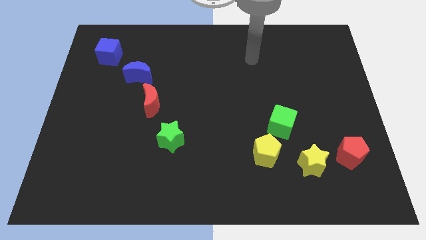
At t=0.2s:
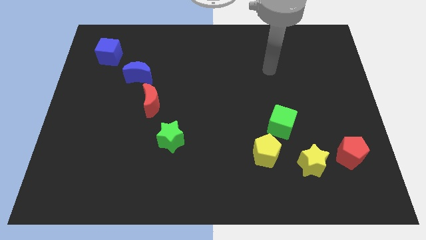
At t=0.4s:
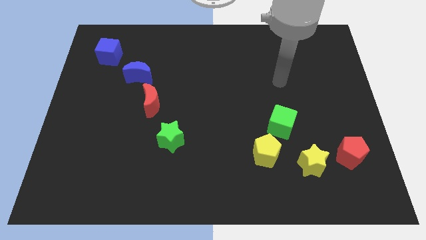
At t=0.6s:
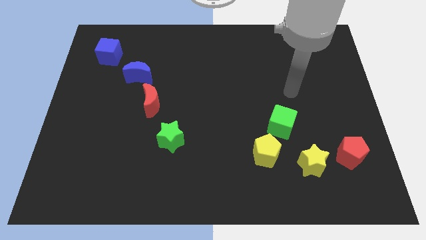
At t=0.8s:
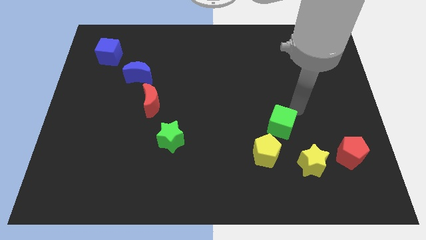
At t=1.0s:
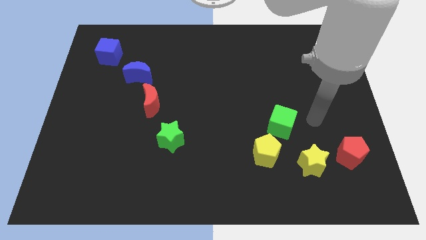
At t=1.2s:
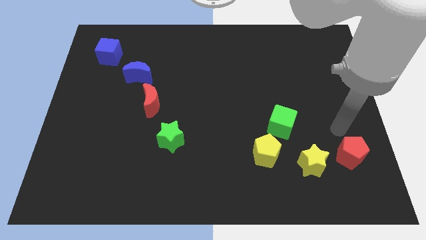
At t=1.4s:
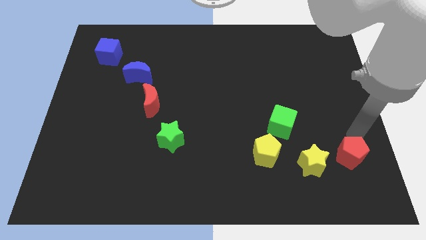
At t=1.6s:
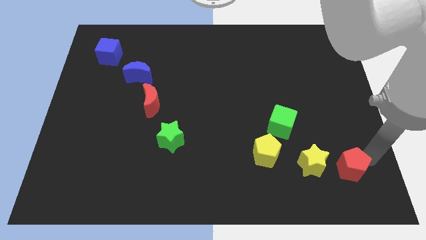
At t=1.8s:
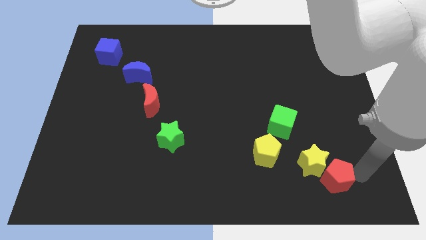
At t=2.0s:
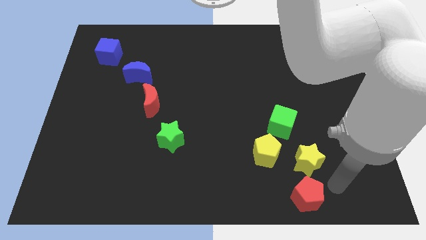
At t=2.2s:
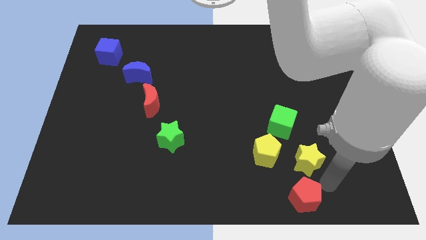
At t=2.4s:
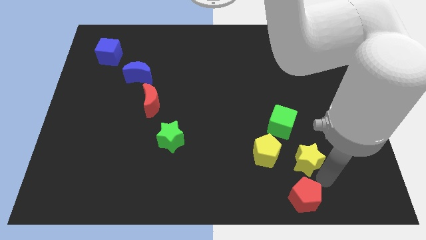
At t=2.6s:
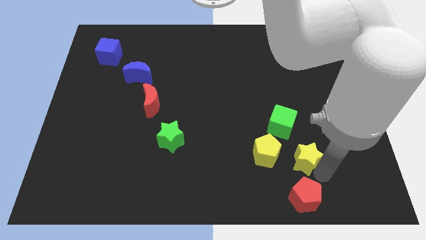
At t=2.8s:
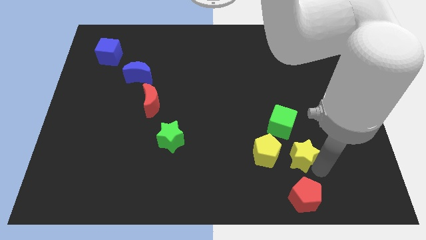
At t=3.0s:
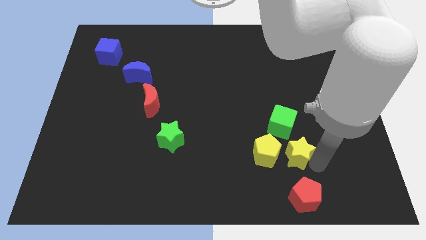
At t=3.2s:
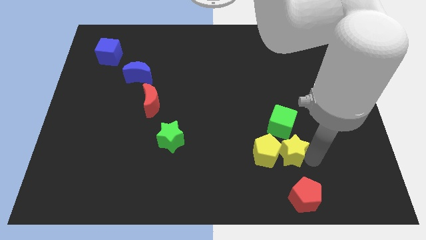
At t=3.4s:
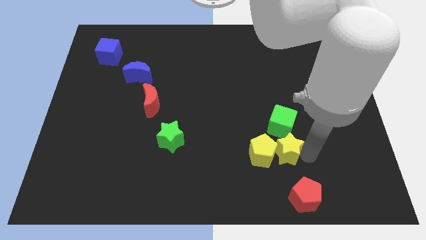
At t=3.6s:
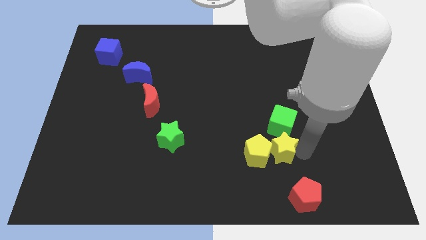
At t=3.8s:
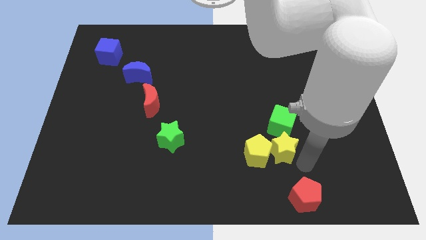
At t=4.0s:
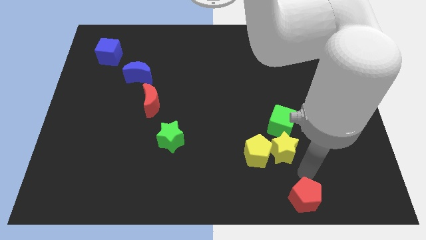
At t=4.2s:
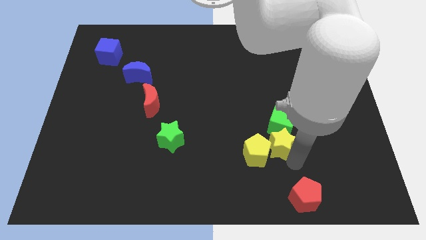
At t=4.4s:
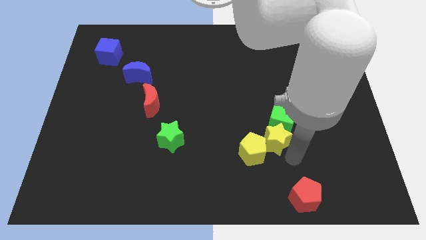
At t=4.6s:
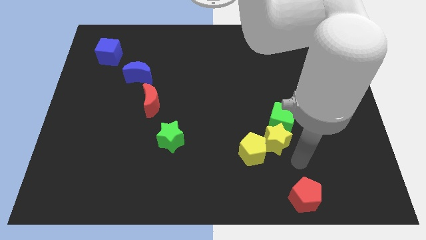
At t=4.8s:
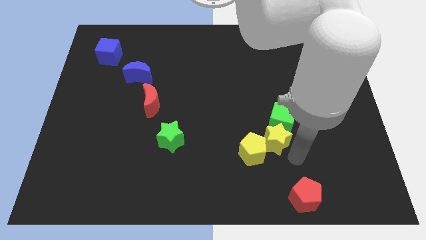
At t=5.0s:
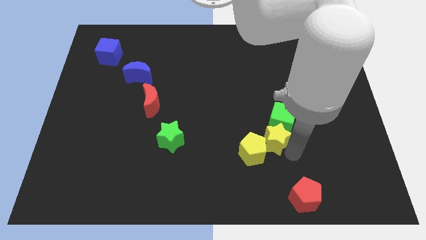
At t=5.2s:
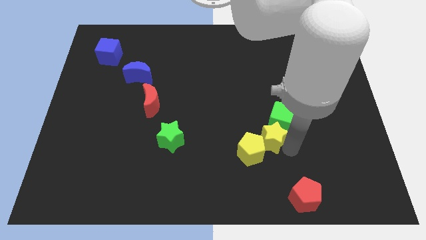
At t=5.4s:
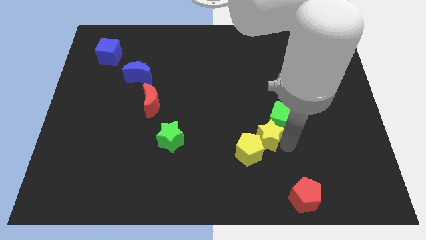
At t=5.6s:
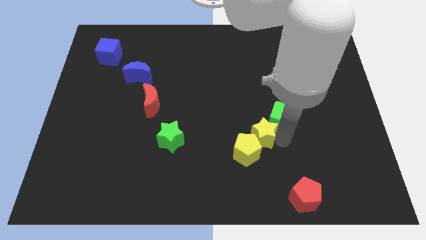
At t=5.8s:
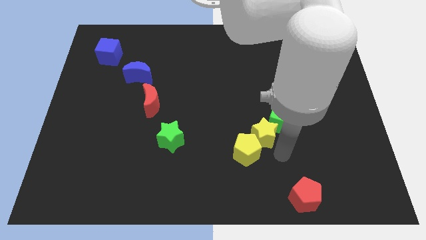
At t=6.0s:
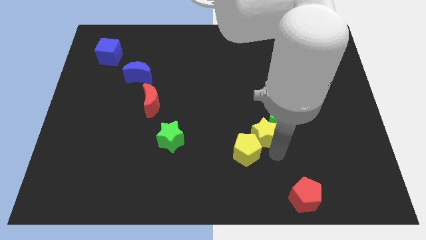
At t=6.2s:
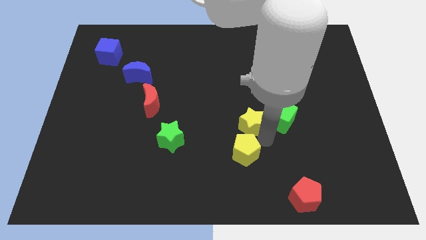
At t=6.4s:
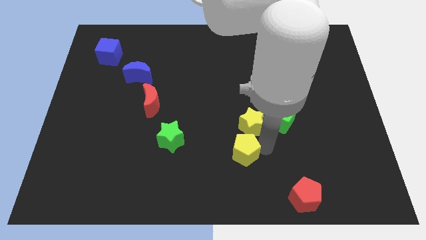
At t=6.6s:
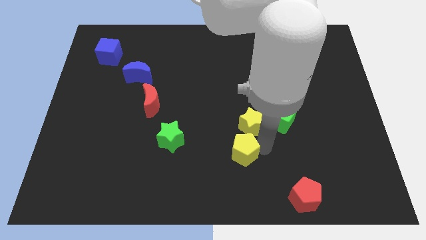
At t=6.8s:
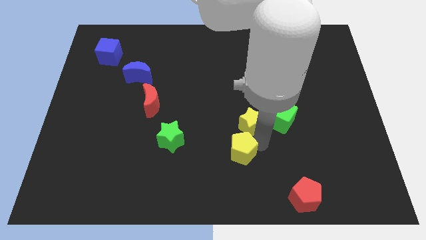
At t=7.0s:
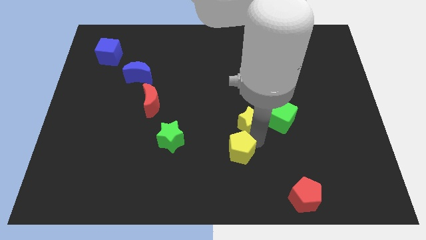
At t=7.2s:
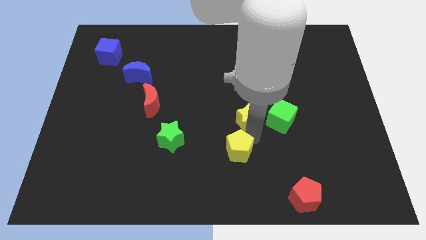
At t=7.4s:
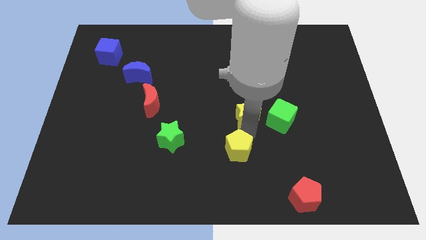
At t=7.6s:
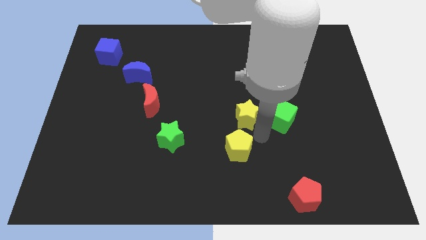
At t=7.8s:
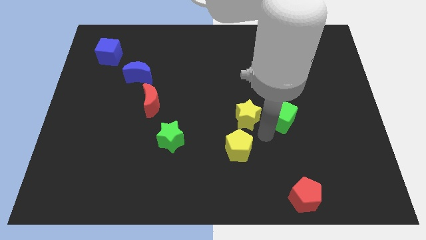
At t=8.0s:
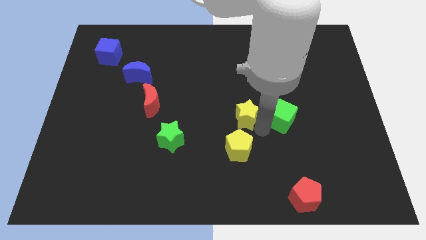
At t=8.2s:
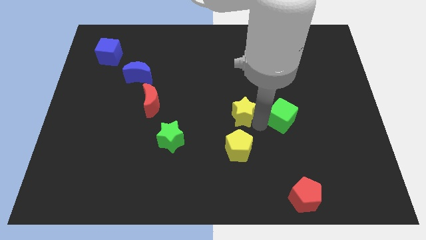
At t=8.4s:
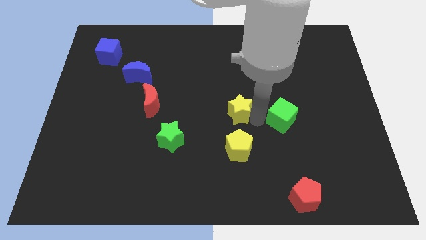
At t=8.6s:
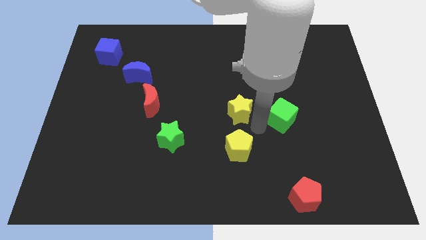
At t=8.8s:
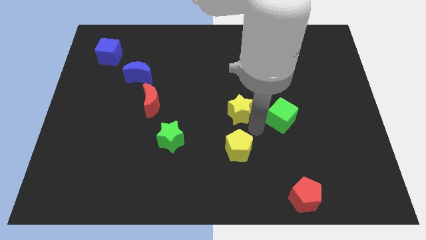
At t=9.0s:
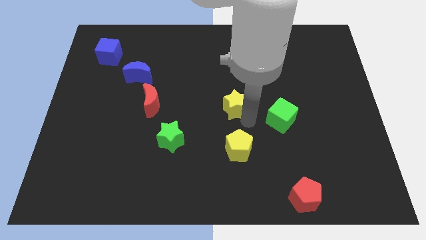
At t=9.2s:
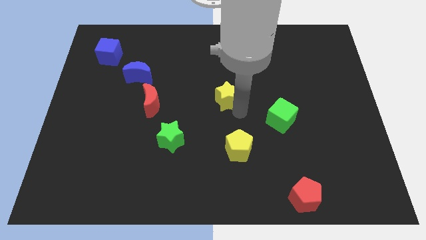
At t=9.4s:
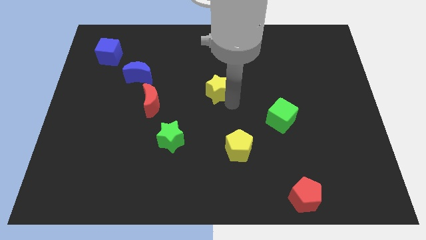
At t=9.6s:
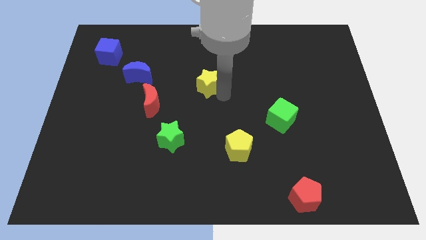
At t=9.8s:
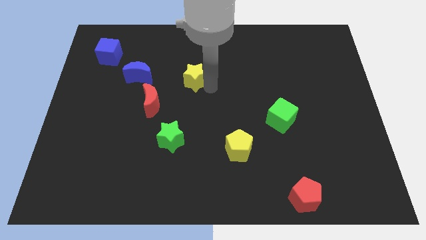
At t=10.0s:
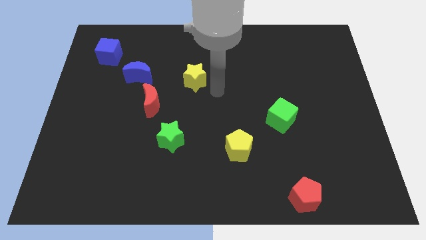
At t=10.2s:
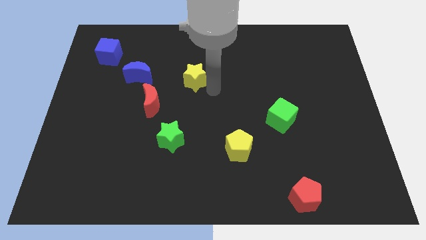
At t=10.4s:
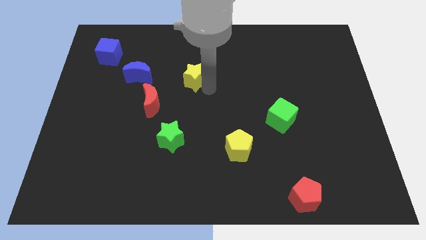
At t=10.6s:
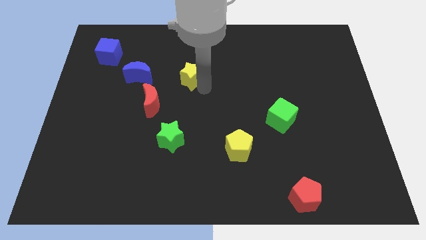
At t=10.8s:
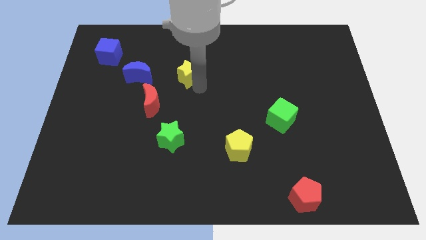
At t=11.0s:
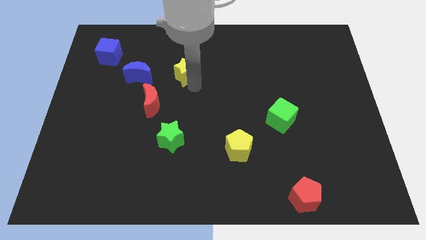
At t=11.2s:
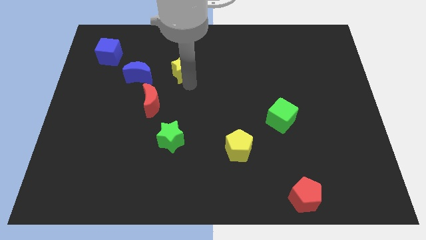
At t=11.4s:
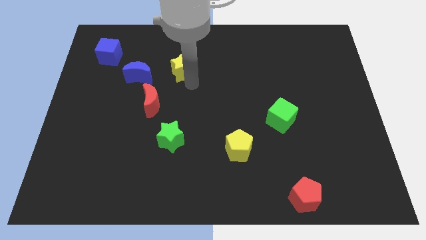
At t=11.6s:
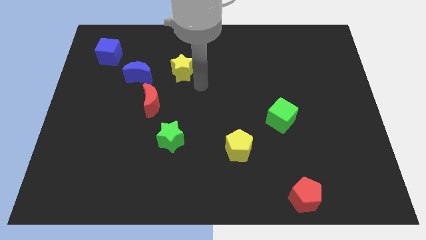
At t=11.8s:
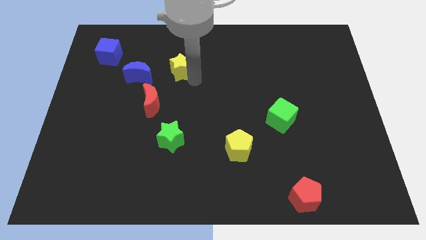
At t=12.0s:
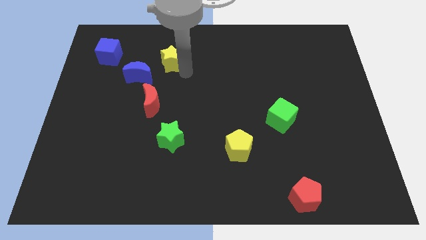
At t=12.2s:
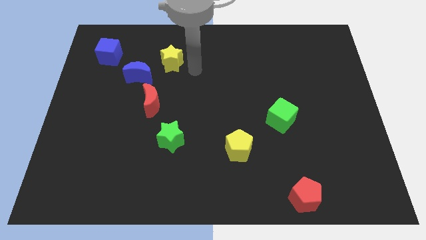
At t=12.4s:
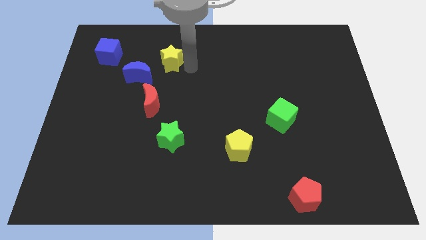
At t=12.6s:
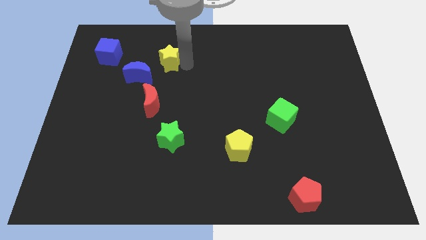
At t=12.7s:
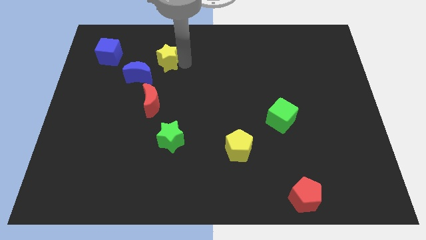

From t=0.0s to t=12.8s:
put the yellow star right of the blue cube

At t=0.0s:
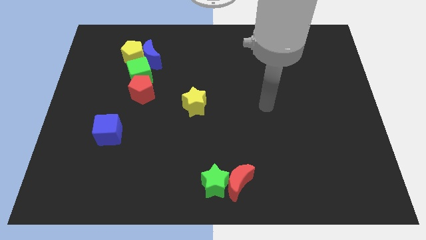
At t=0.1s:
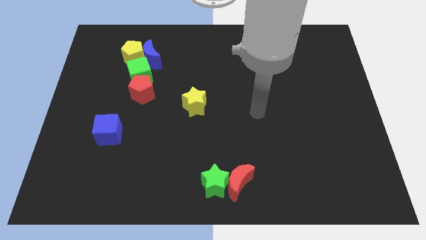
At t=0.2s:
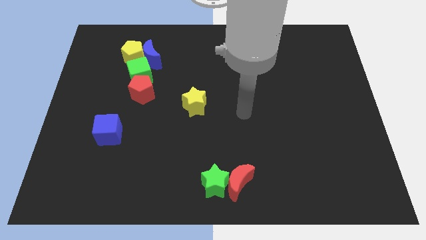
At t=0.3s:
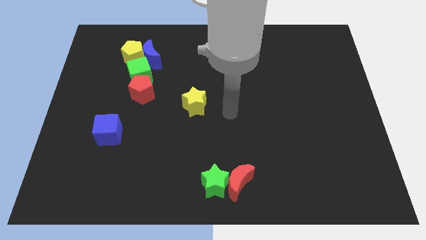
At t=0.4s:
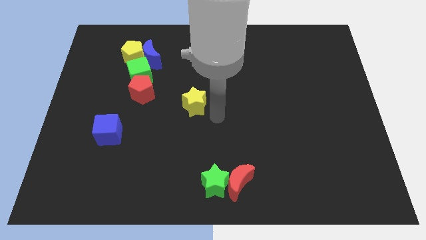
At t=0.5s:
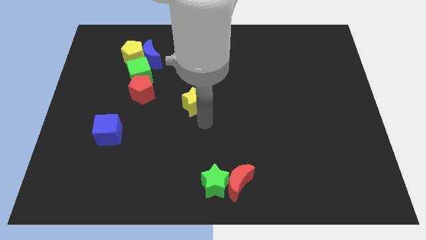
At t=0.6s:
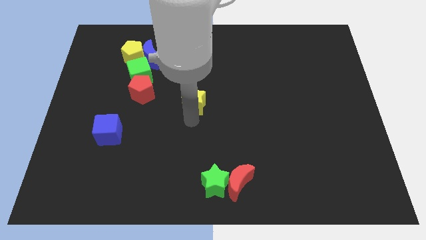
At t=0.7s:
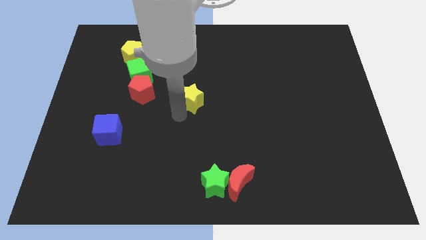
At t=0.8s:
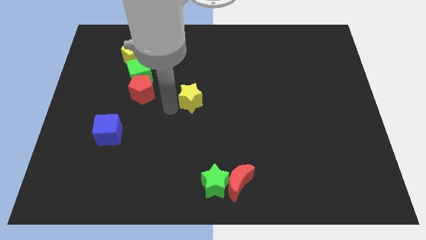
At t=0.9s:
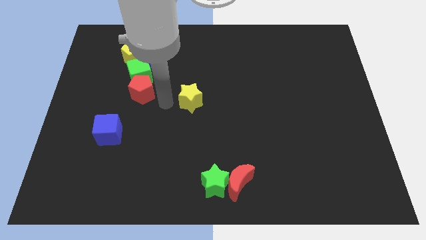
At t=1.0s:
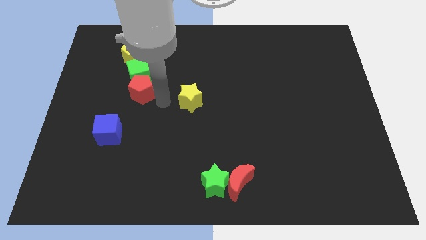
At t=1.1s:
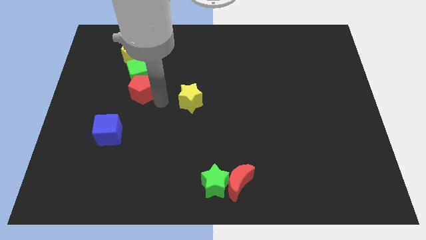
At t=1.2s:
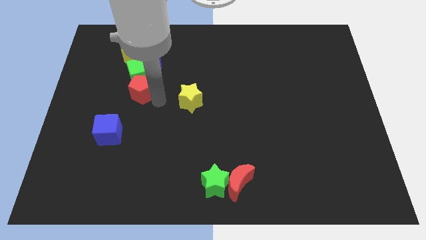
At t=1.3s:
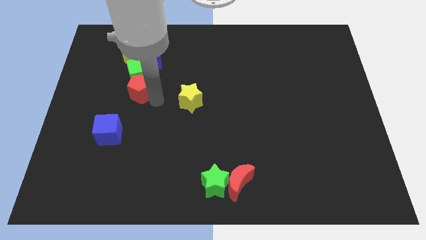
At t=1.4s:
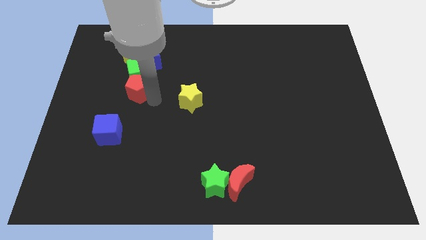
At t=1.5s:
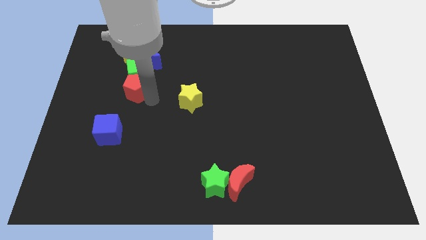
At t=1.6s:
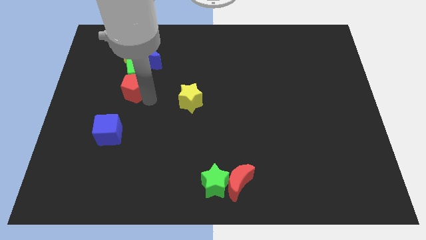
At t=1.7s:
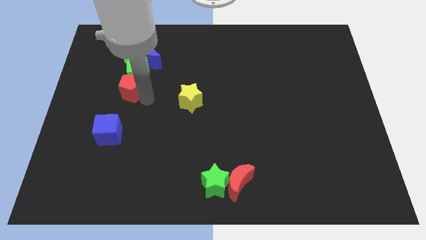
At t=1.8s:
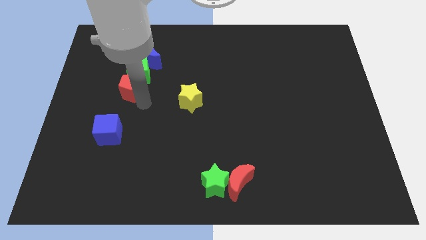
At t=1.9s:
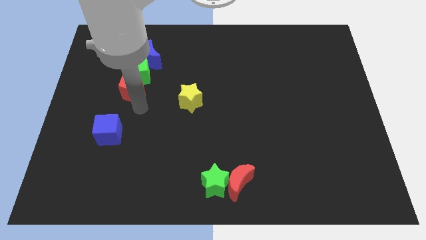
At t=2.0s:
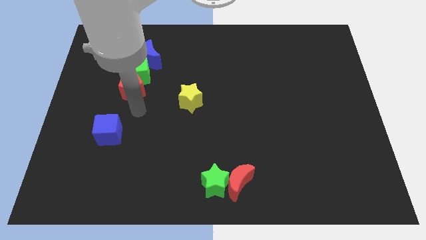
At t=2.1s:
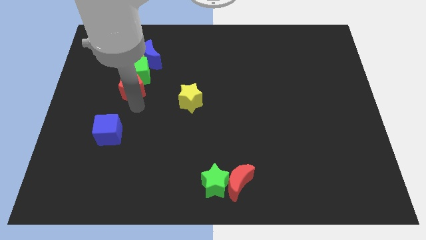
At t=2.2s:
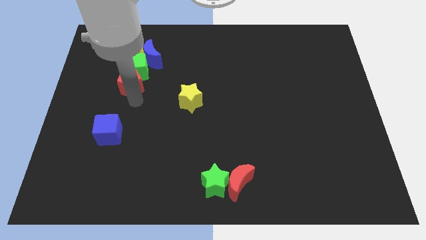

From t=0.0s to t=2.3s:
put the red pentagon to the bottom left side of the blue moon
